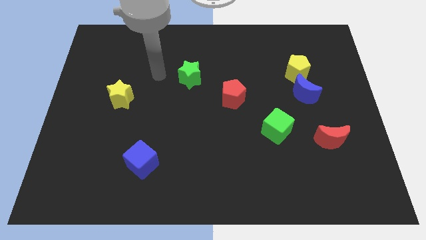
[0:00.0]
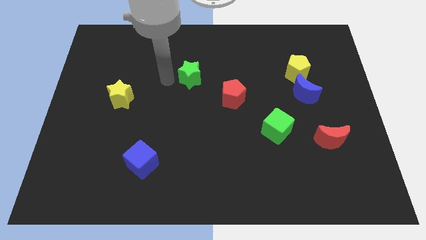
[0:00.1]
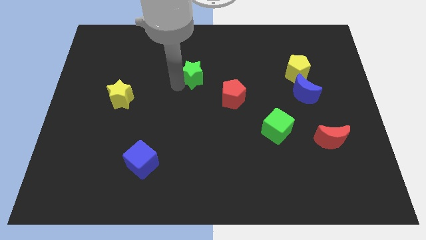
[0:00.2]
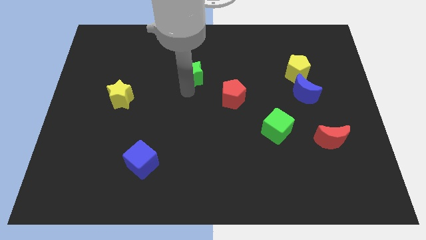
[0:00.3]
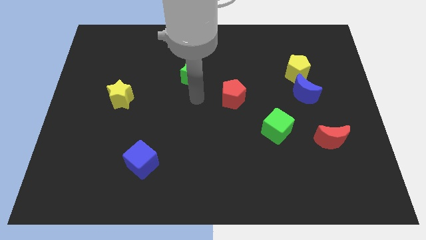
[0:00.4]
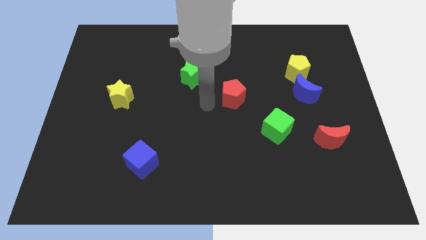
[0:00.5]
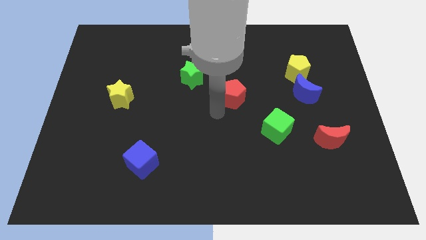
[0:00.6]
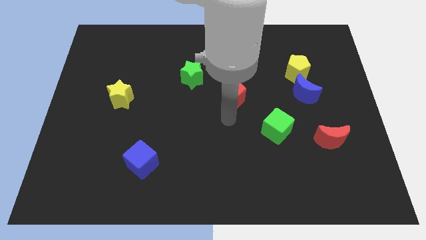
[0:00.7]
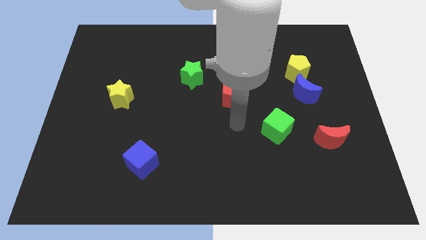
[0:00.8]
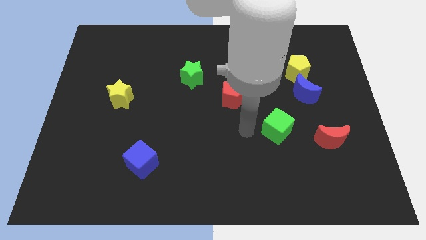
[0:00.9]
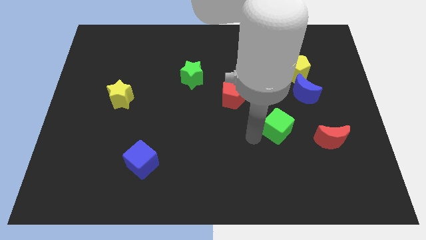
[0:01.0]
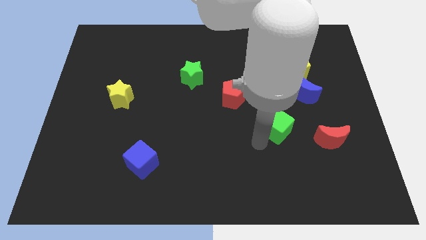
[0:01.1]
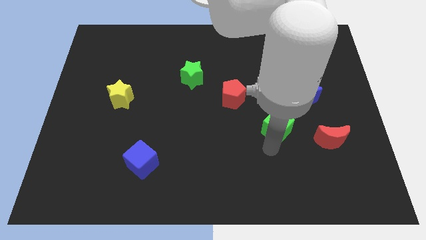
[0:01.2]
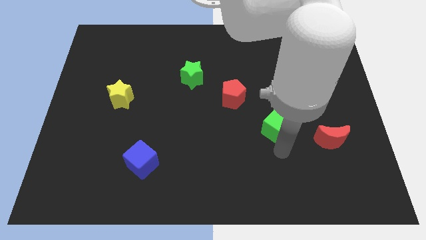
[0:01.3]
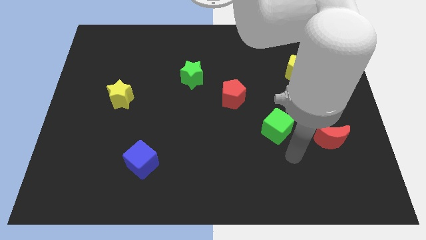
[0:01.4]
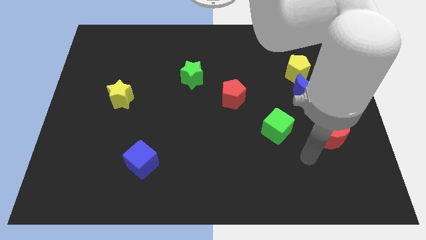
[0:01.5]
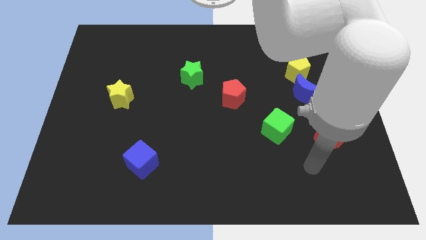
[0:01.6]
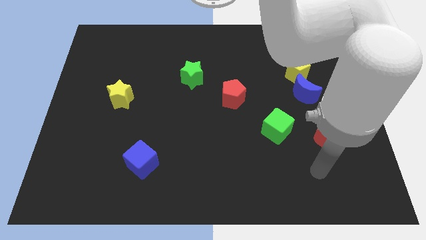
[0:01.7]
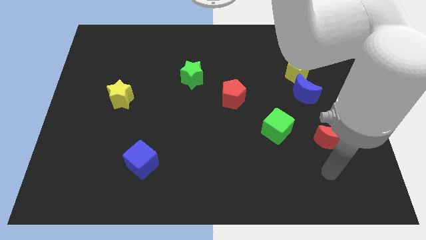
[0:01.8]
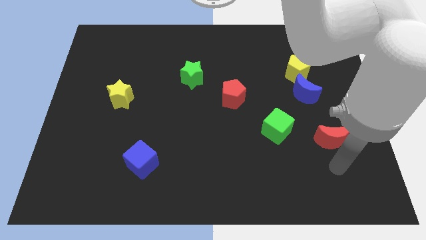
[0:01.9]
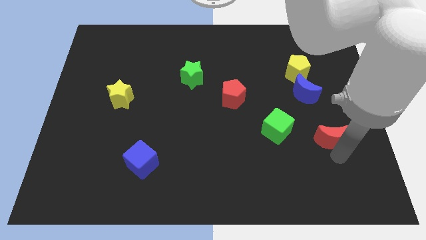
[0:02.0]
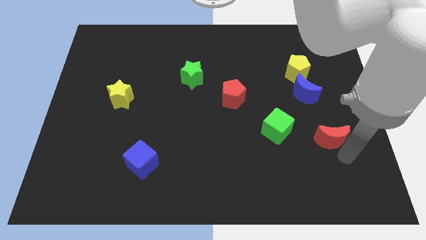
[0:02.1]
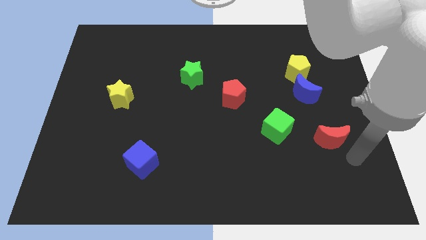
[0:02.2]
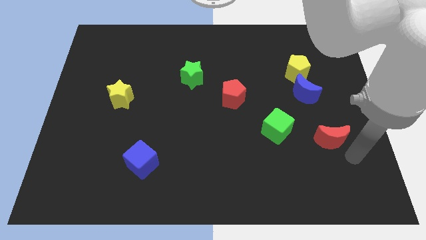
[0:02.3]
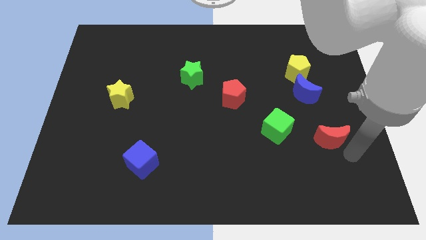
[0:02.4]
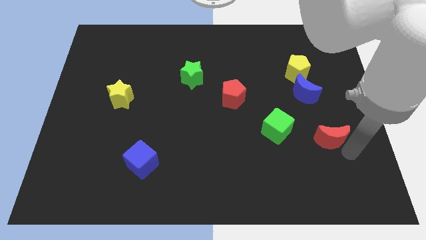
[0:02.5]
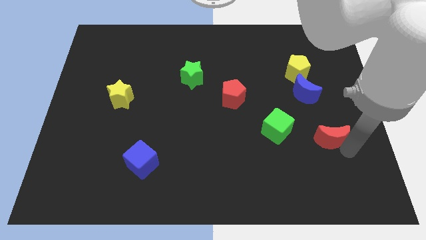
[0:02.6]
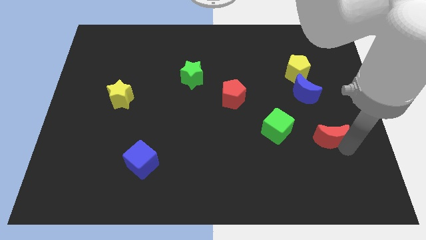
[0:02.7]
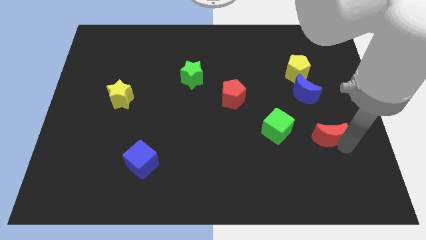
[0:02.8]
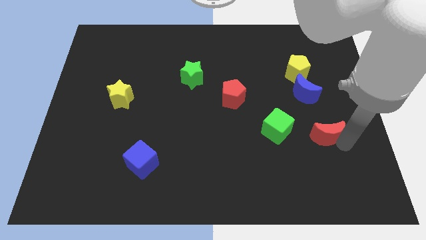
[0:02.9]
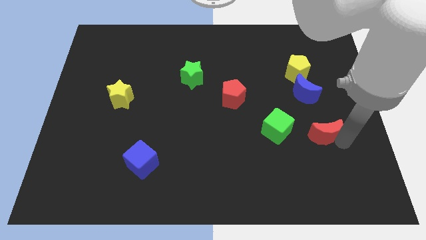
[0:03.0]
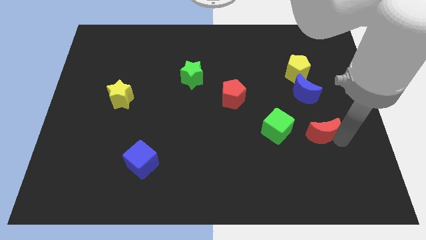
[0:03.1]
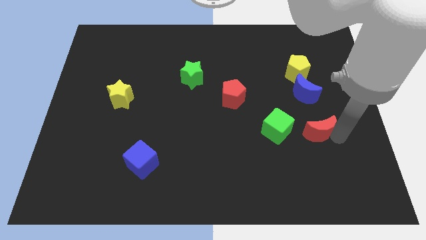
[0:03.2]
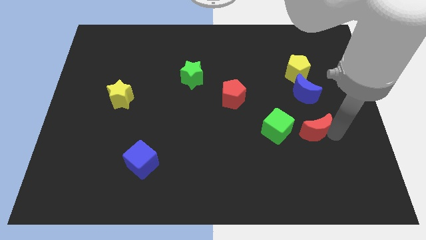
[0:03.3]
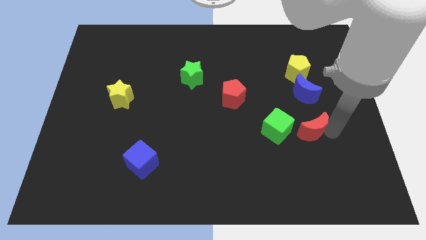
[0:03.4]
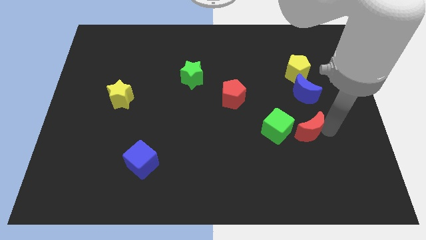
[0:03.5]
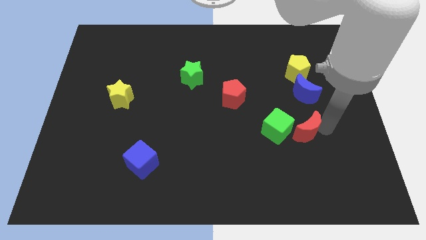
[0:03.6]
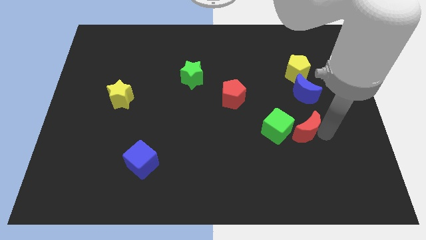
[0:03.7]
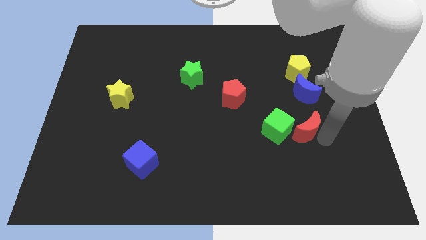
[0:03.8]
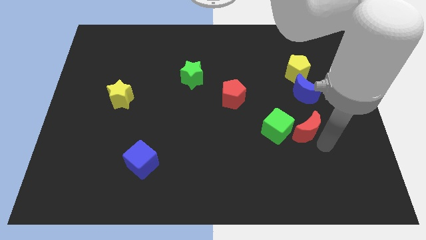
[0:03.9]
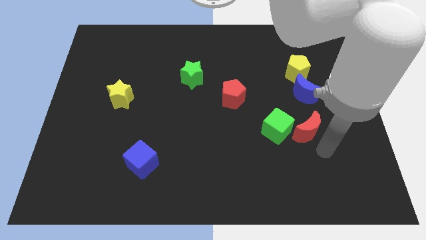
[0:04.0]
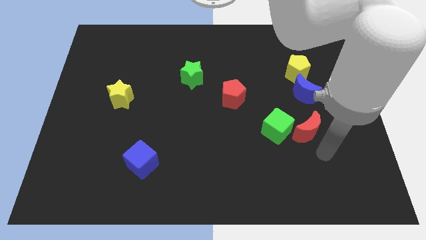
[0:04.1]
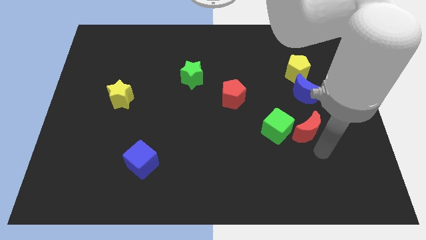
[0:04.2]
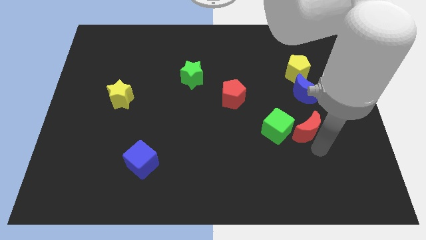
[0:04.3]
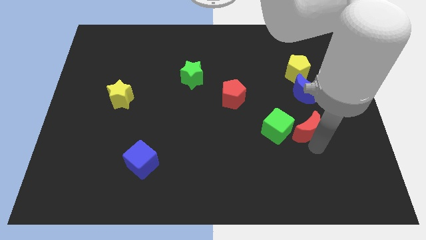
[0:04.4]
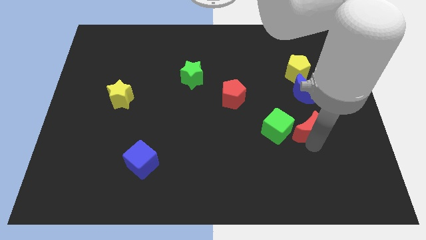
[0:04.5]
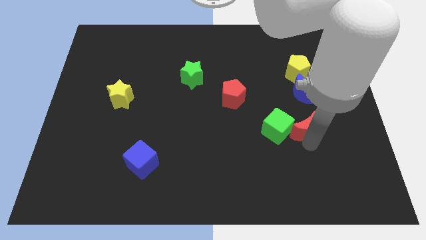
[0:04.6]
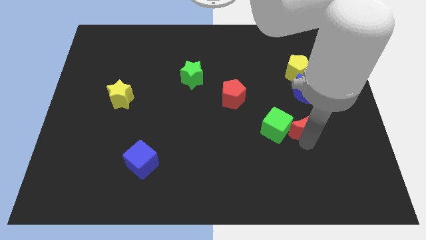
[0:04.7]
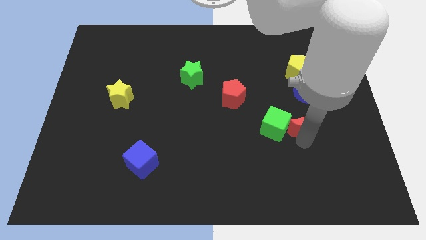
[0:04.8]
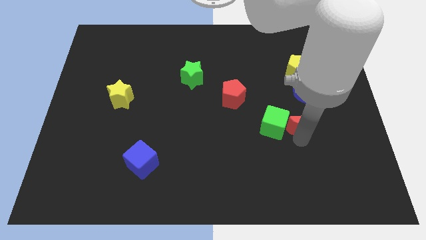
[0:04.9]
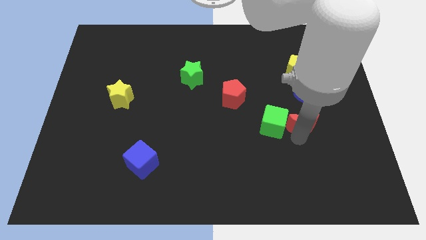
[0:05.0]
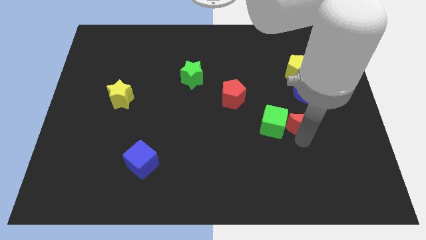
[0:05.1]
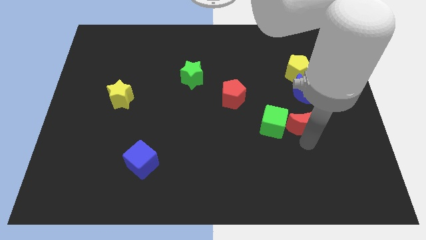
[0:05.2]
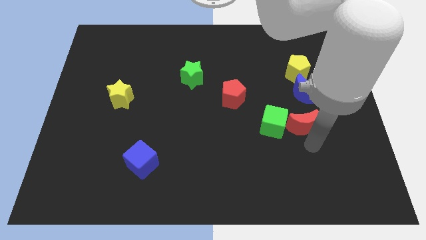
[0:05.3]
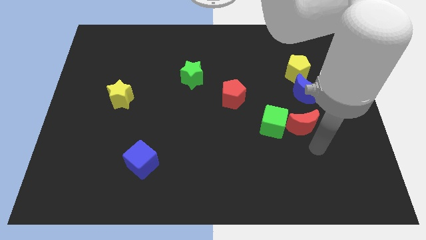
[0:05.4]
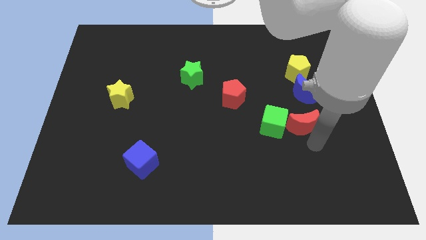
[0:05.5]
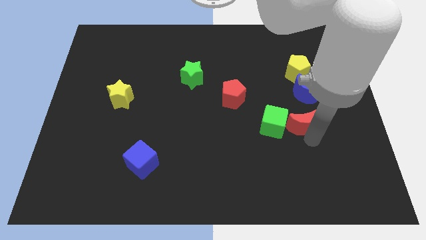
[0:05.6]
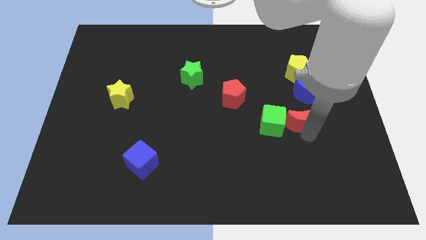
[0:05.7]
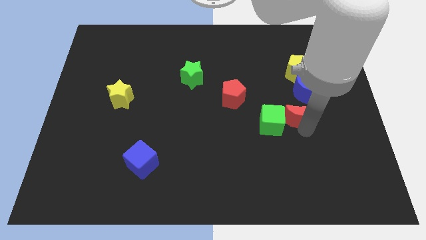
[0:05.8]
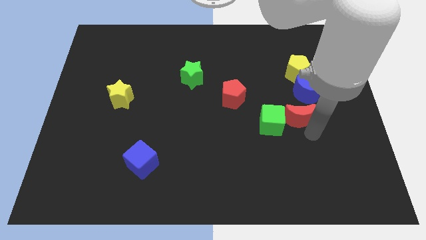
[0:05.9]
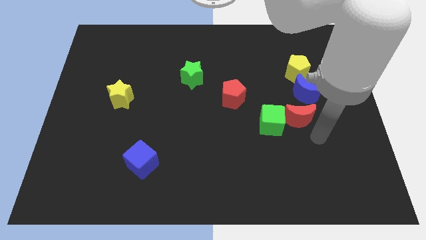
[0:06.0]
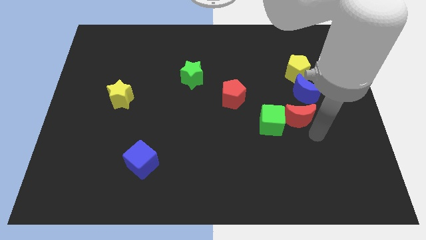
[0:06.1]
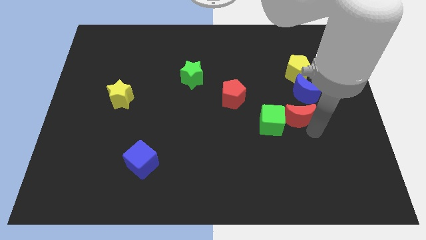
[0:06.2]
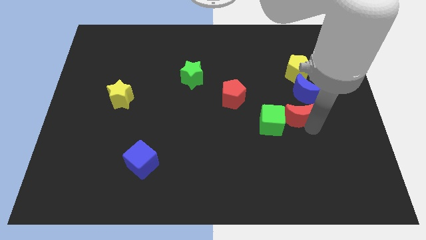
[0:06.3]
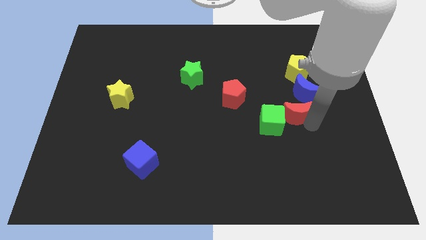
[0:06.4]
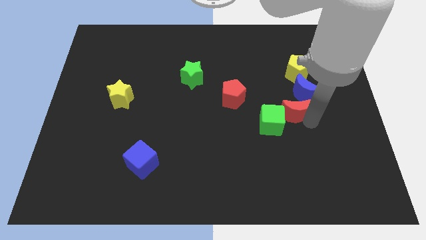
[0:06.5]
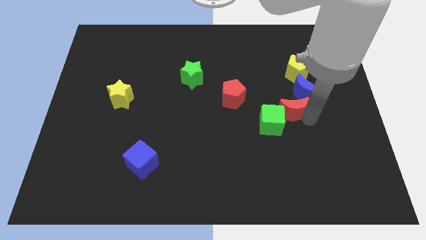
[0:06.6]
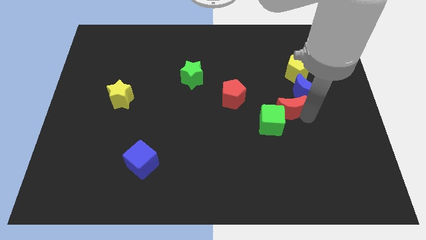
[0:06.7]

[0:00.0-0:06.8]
move the red moon to the right side of the red pentagon

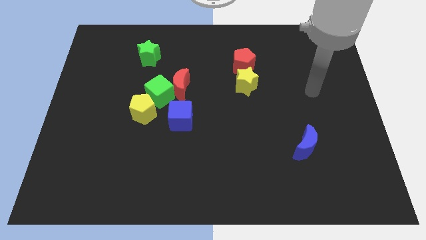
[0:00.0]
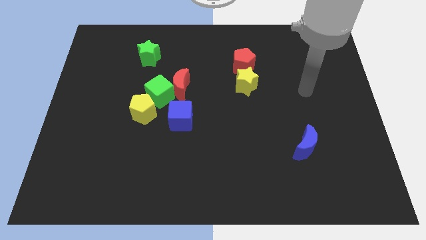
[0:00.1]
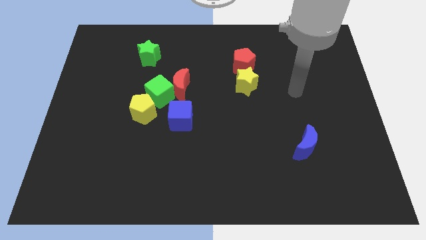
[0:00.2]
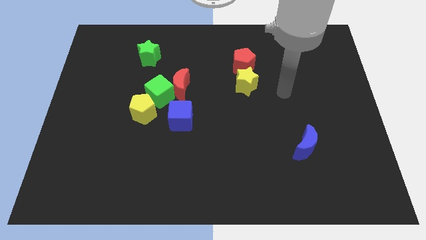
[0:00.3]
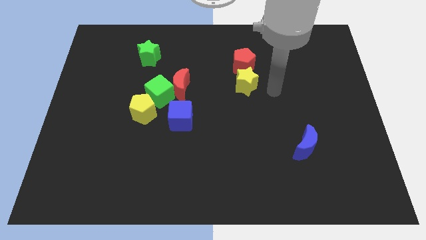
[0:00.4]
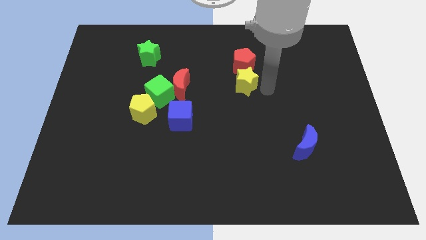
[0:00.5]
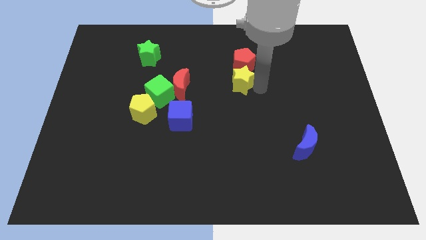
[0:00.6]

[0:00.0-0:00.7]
slide the yellow star to the bottom left side of the red pentagon
